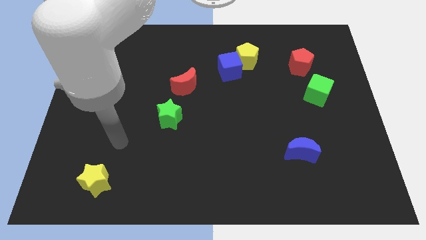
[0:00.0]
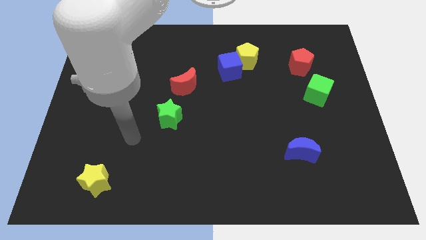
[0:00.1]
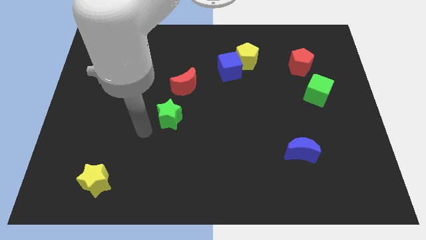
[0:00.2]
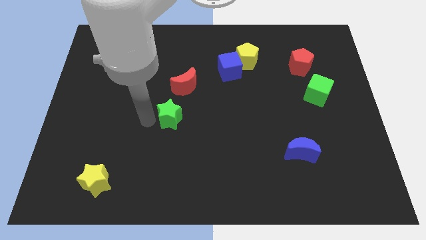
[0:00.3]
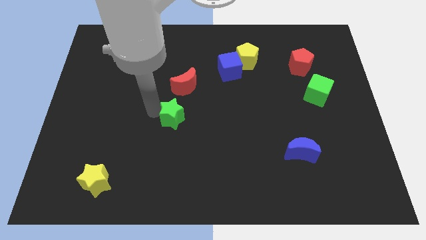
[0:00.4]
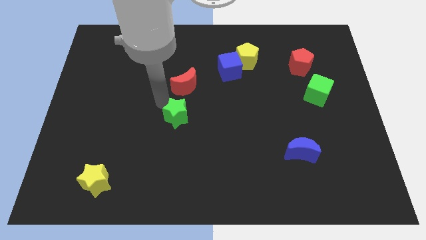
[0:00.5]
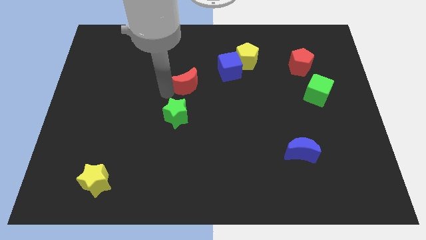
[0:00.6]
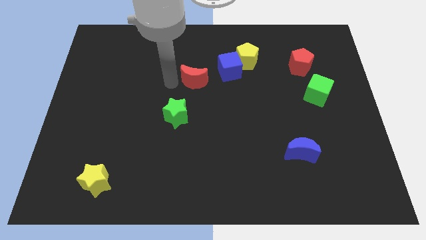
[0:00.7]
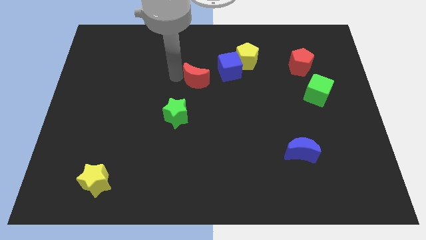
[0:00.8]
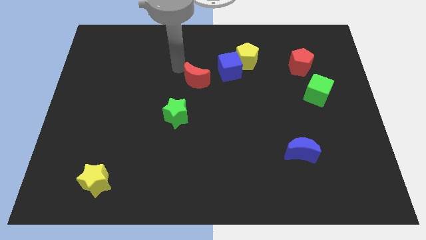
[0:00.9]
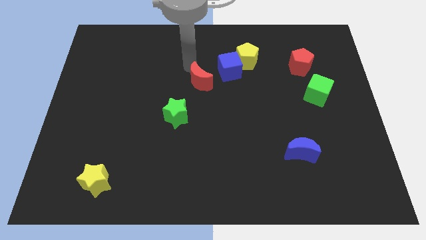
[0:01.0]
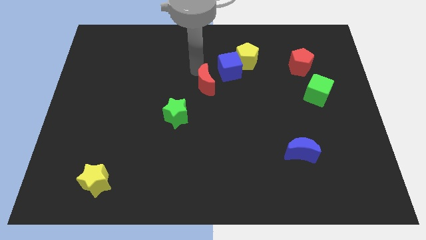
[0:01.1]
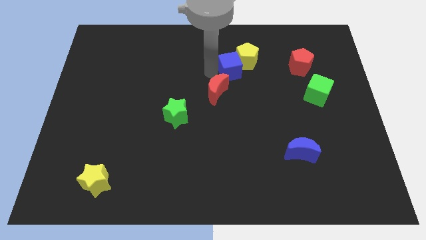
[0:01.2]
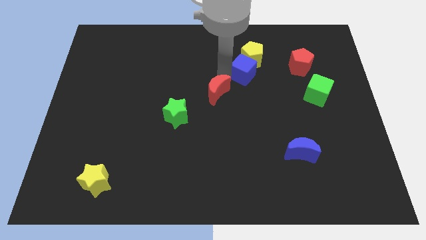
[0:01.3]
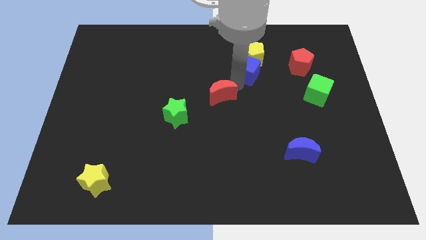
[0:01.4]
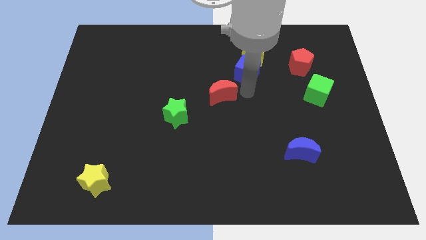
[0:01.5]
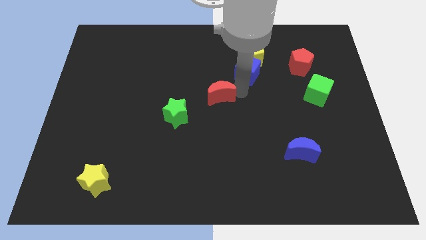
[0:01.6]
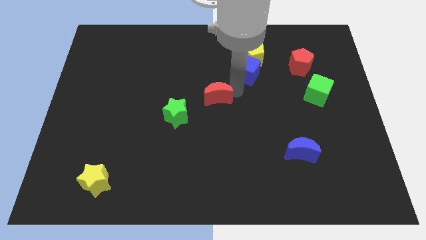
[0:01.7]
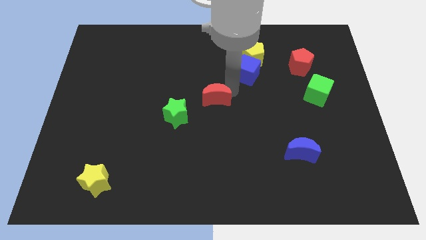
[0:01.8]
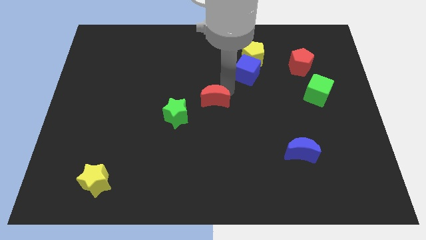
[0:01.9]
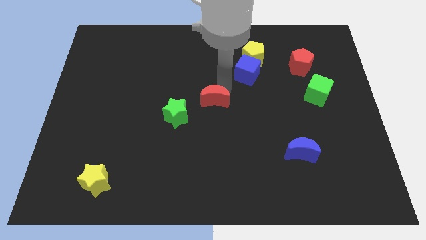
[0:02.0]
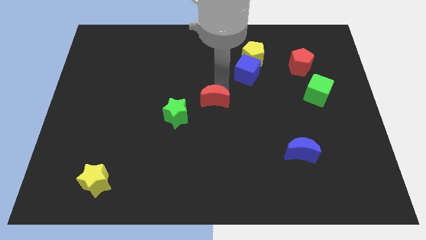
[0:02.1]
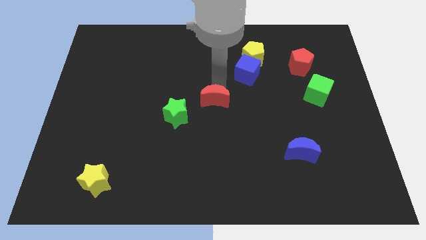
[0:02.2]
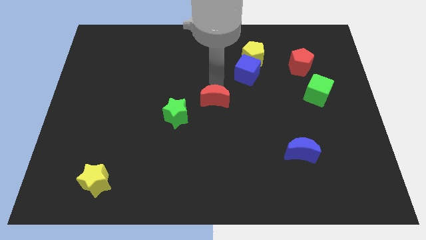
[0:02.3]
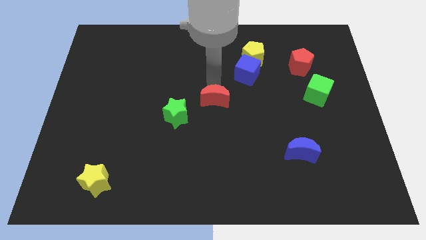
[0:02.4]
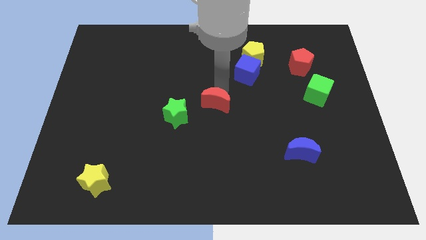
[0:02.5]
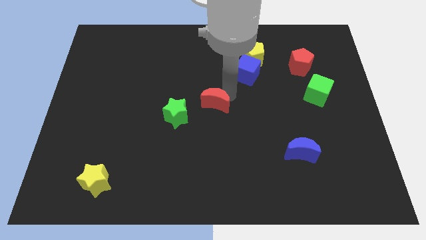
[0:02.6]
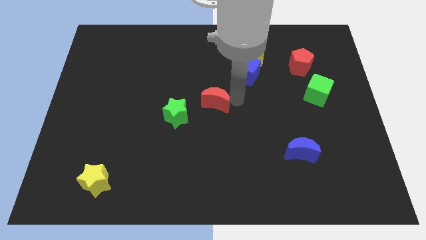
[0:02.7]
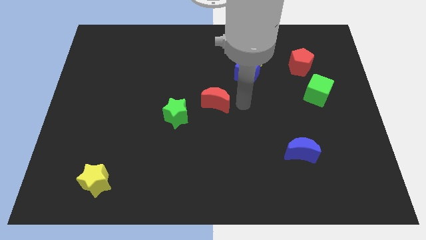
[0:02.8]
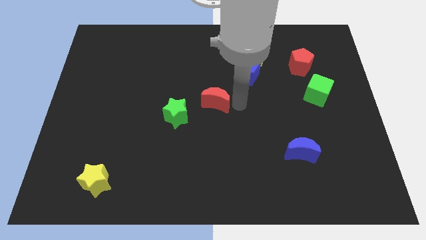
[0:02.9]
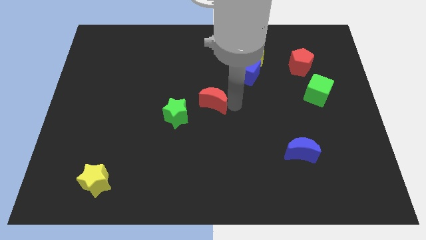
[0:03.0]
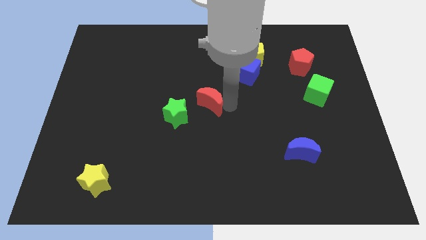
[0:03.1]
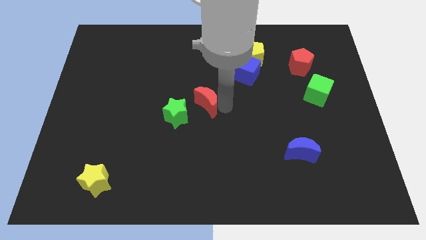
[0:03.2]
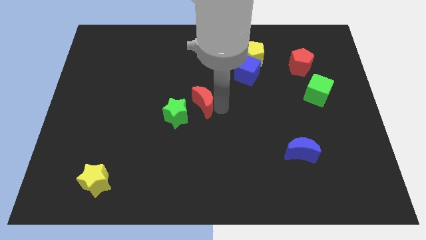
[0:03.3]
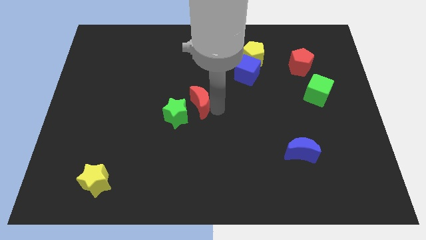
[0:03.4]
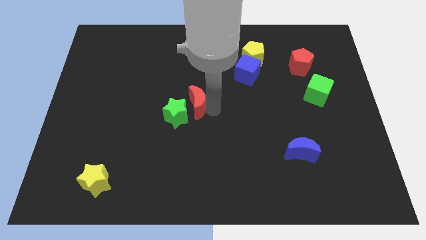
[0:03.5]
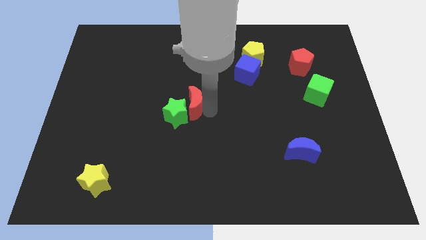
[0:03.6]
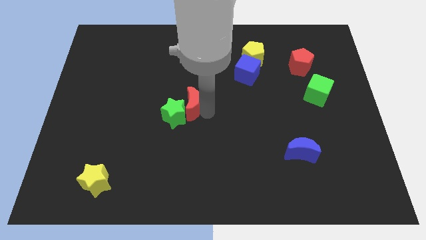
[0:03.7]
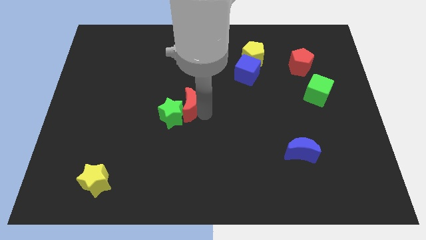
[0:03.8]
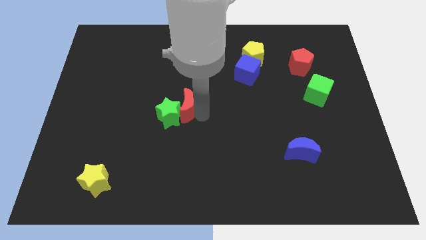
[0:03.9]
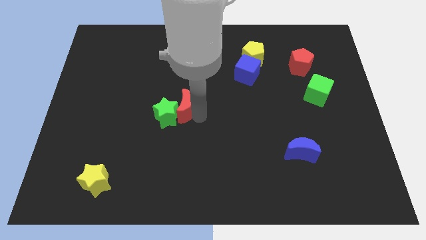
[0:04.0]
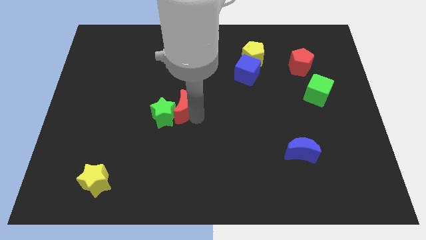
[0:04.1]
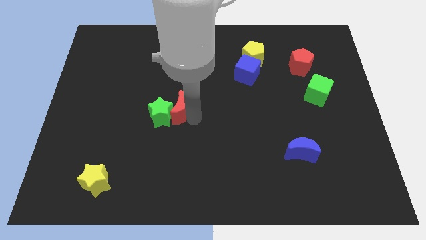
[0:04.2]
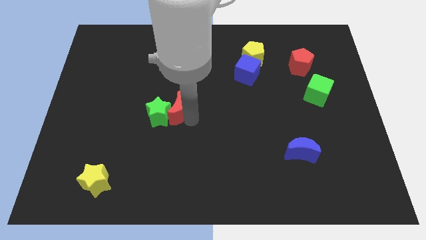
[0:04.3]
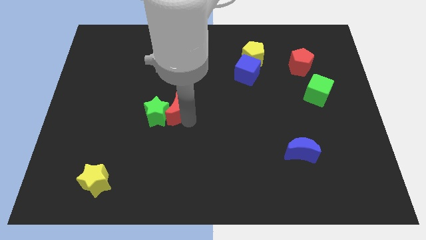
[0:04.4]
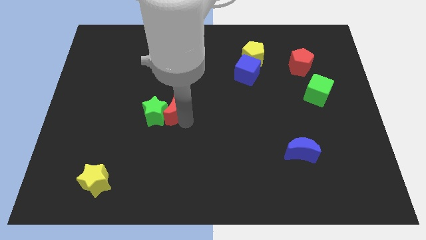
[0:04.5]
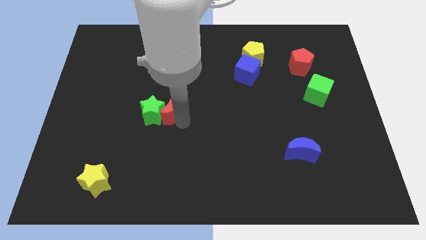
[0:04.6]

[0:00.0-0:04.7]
move the red moon downwards and to the left diagonally slightly

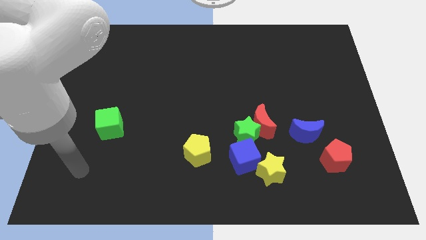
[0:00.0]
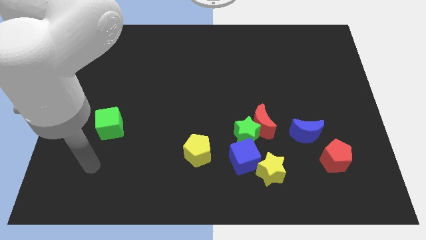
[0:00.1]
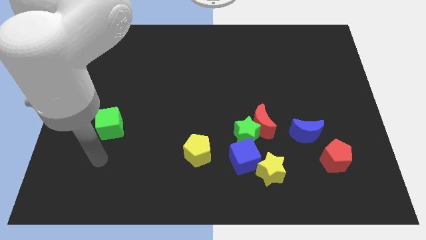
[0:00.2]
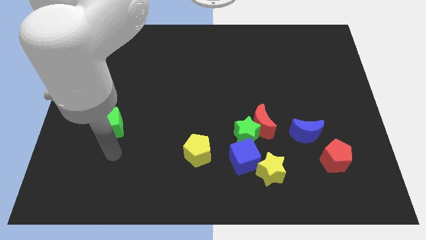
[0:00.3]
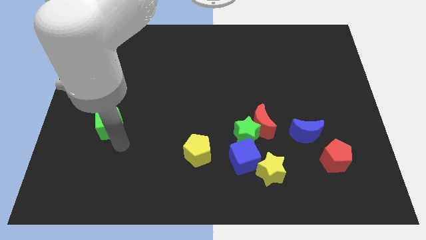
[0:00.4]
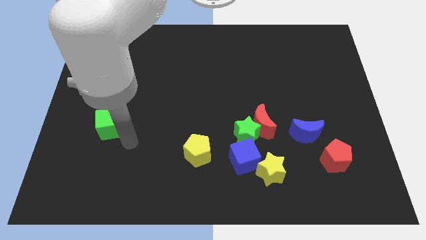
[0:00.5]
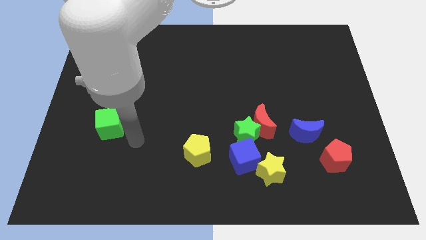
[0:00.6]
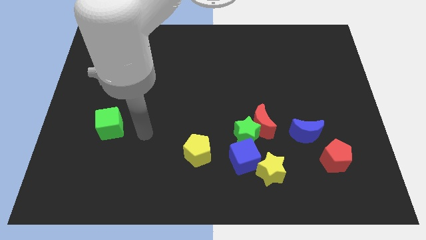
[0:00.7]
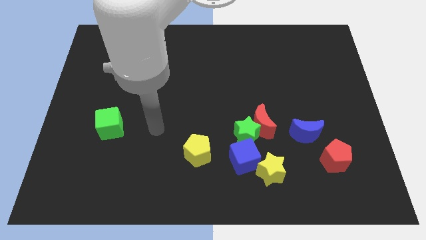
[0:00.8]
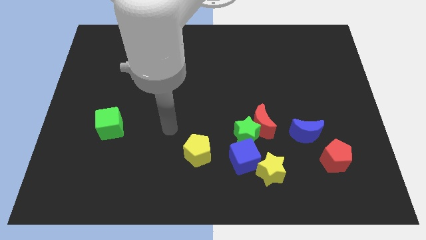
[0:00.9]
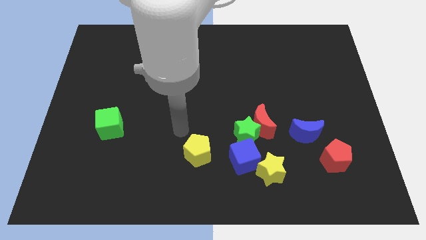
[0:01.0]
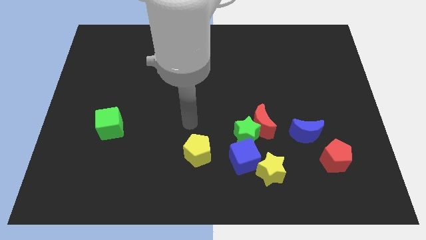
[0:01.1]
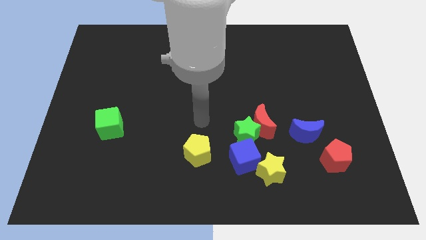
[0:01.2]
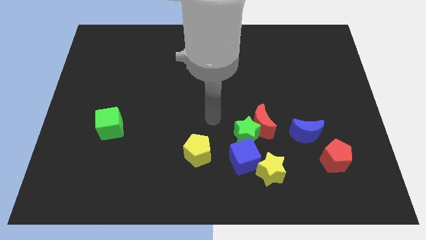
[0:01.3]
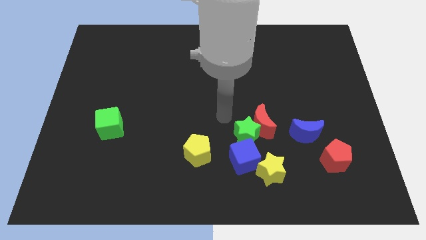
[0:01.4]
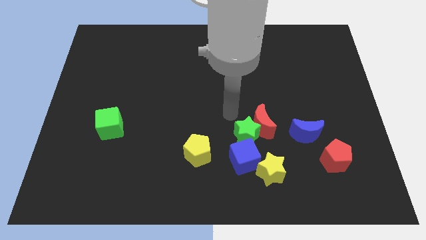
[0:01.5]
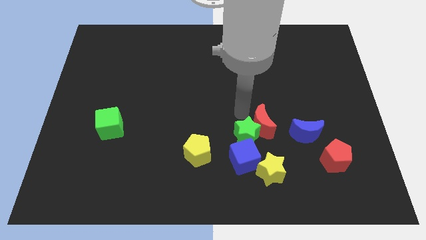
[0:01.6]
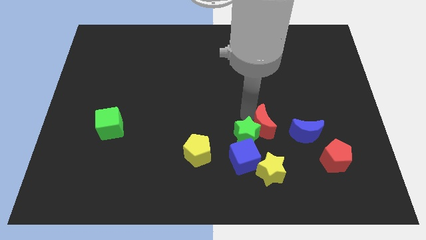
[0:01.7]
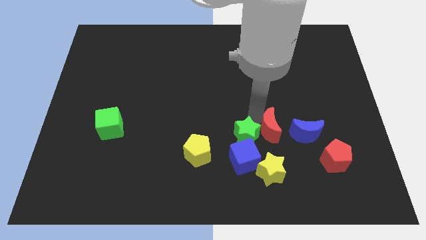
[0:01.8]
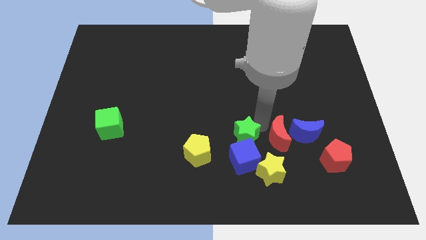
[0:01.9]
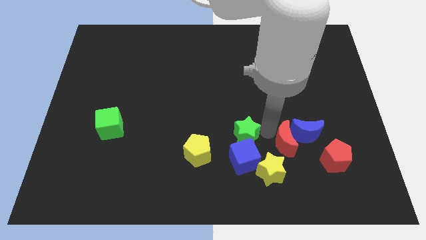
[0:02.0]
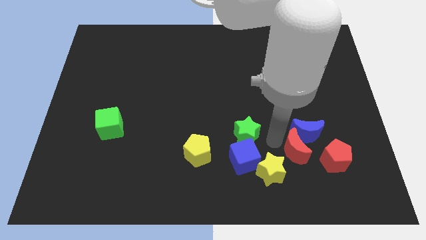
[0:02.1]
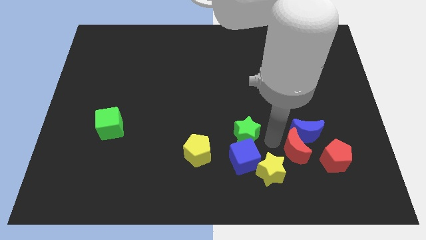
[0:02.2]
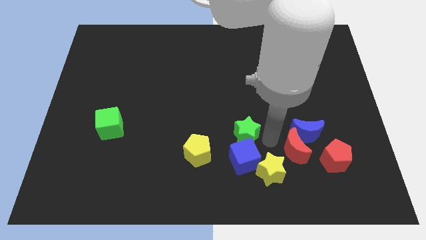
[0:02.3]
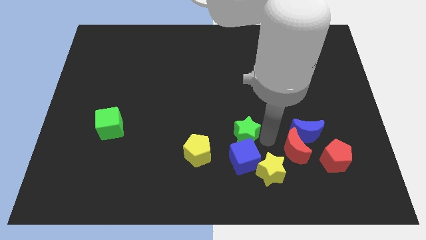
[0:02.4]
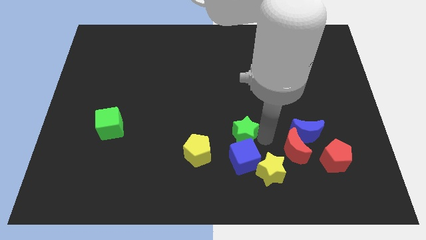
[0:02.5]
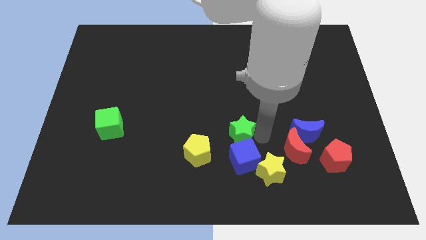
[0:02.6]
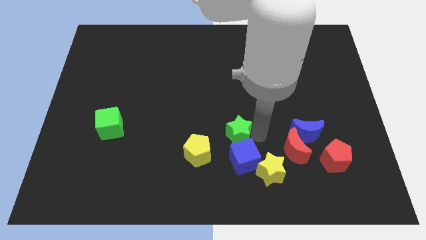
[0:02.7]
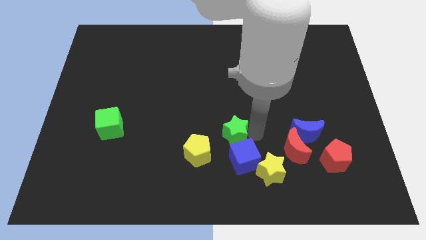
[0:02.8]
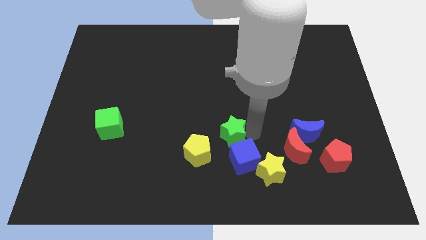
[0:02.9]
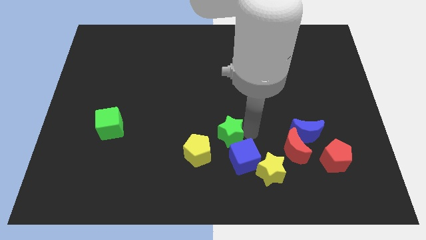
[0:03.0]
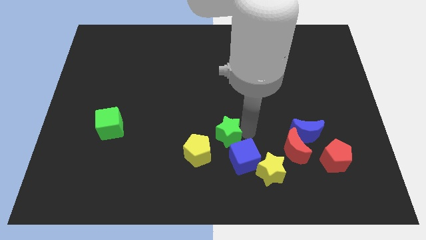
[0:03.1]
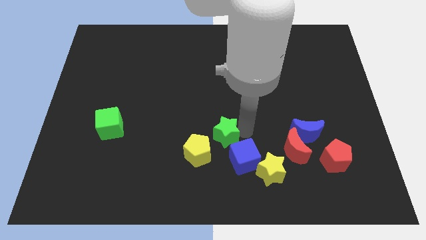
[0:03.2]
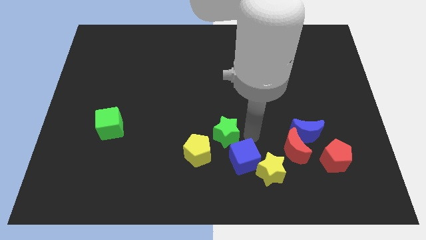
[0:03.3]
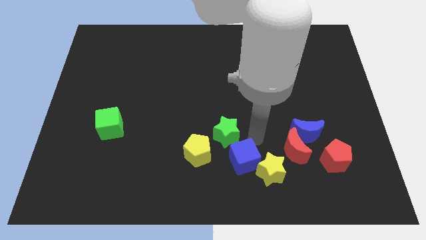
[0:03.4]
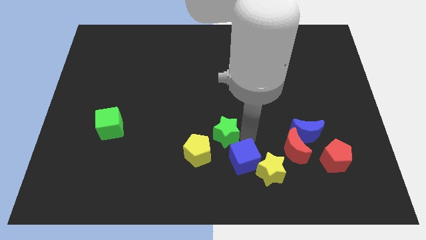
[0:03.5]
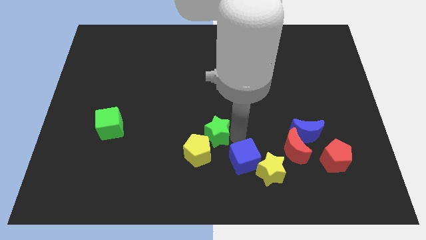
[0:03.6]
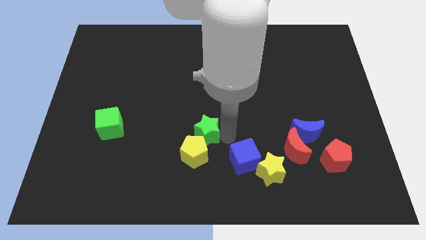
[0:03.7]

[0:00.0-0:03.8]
slide the green star to the left a bit
